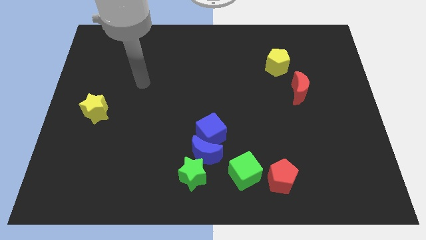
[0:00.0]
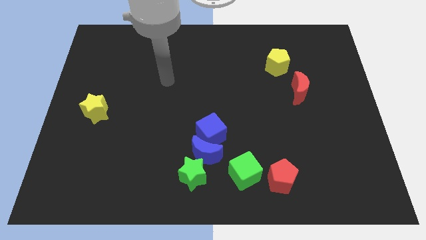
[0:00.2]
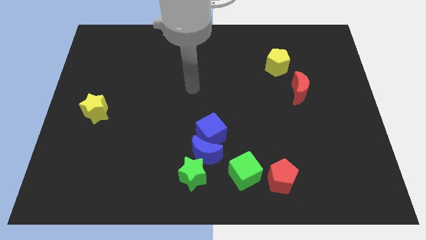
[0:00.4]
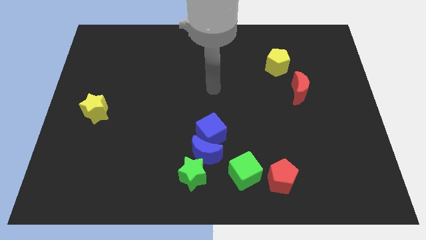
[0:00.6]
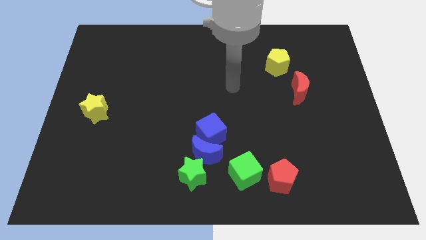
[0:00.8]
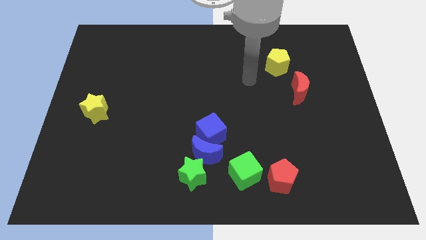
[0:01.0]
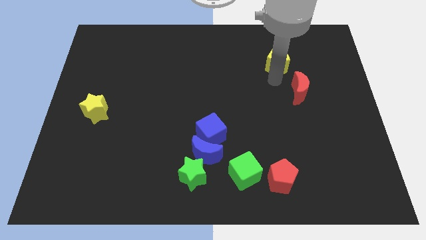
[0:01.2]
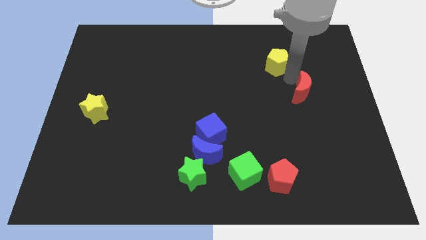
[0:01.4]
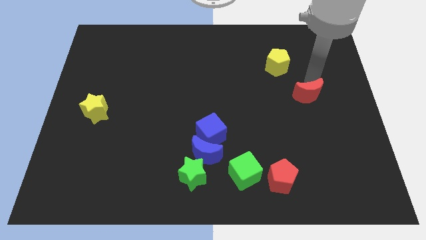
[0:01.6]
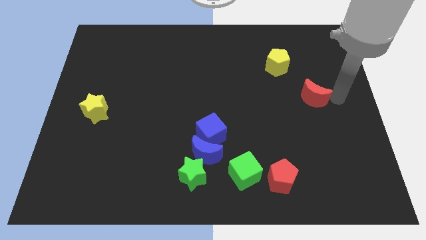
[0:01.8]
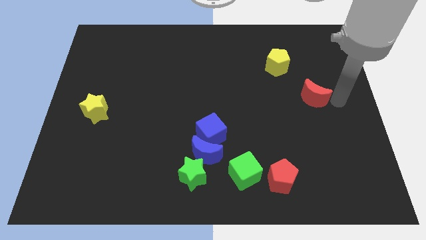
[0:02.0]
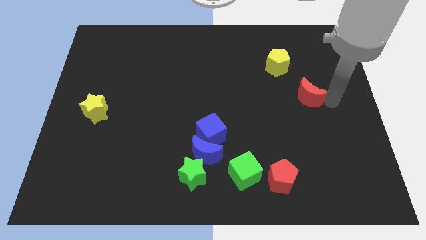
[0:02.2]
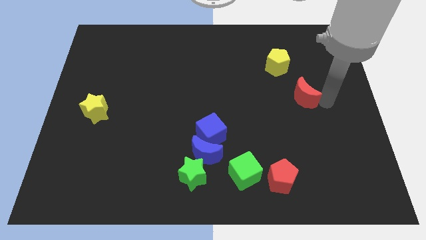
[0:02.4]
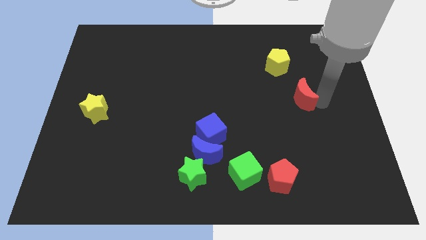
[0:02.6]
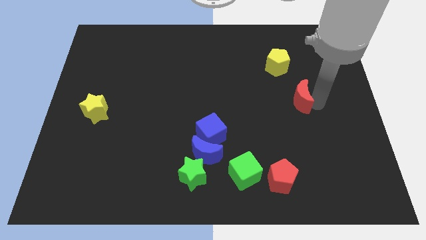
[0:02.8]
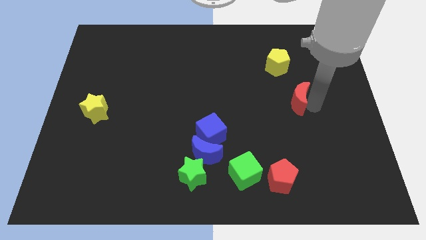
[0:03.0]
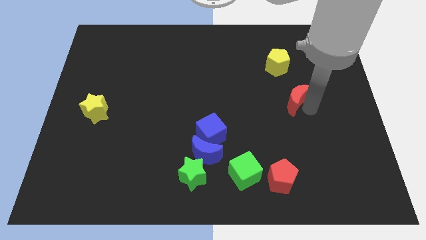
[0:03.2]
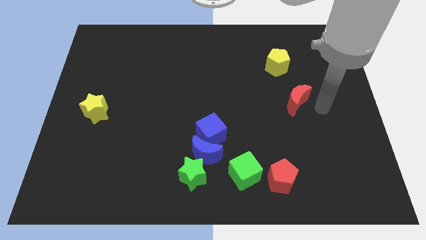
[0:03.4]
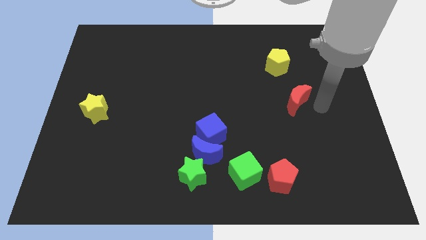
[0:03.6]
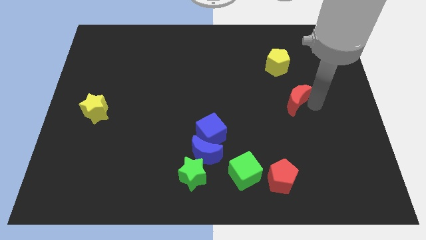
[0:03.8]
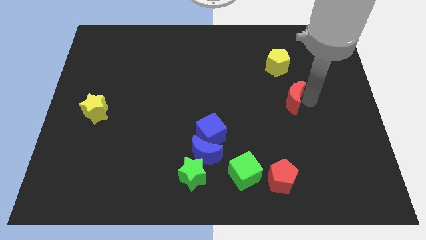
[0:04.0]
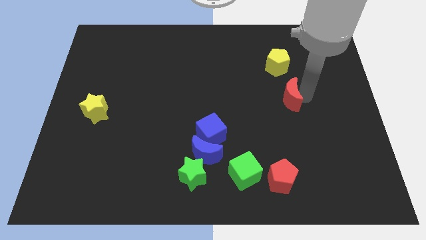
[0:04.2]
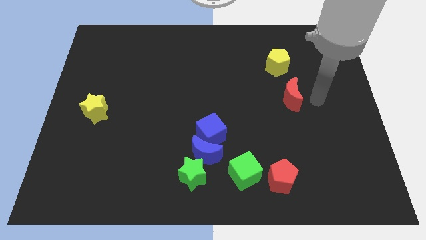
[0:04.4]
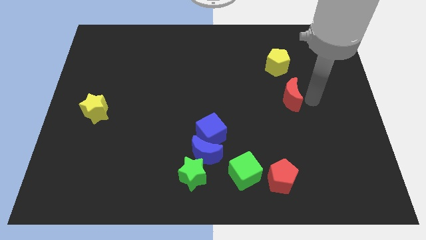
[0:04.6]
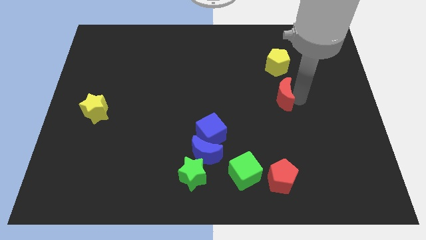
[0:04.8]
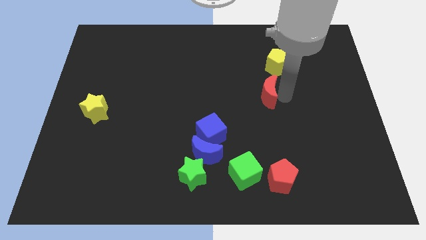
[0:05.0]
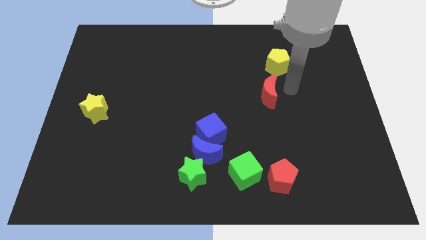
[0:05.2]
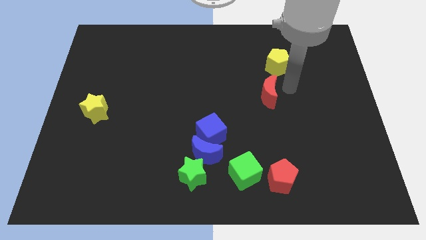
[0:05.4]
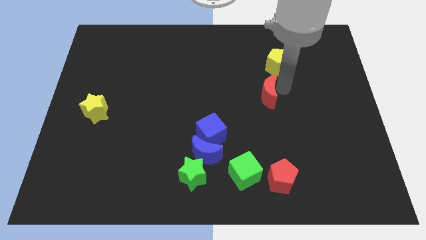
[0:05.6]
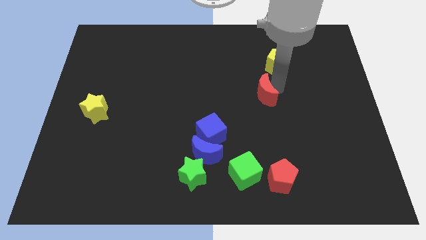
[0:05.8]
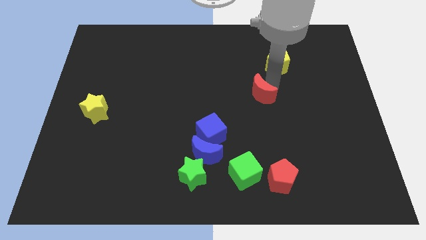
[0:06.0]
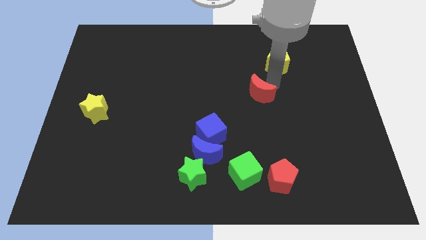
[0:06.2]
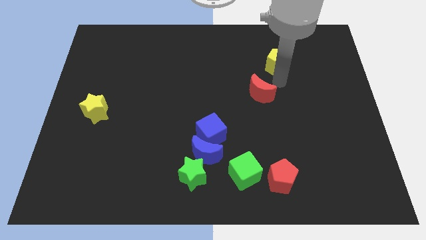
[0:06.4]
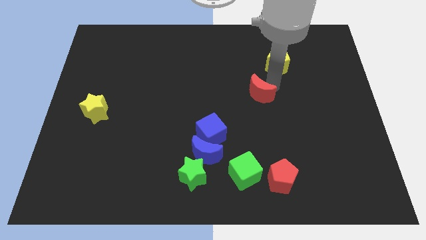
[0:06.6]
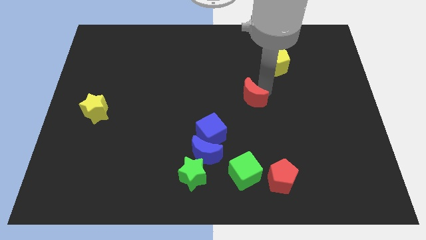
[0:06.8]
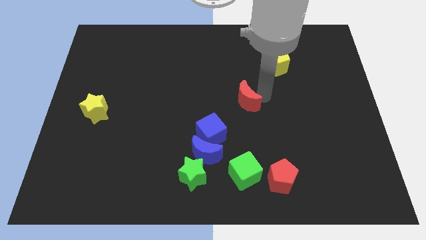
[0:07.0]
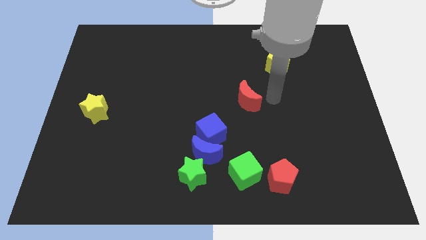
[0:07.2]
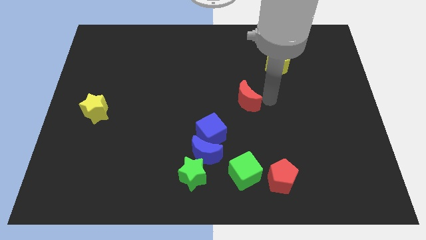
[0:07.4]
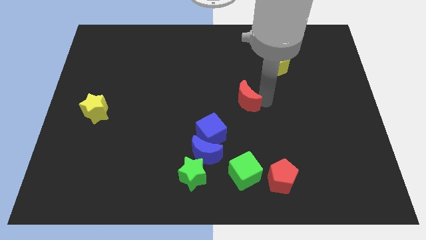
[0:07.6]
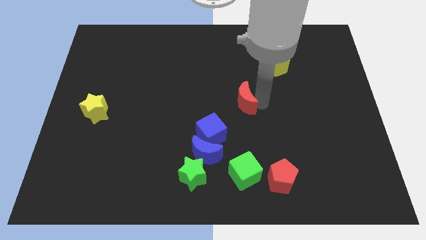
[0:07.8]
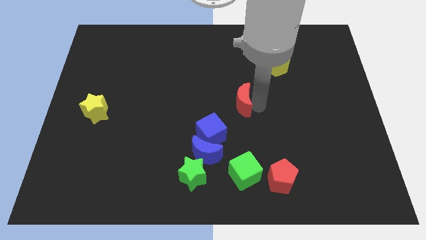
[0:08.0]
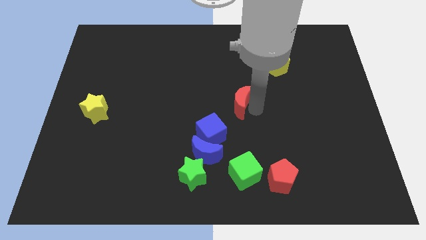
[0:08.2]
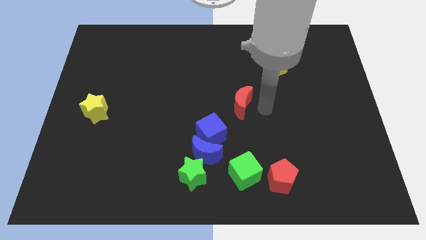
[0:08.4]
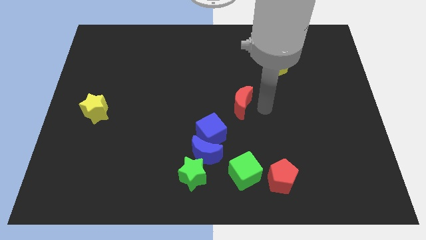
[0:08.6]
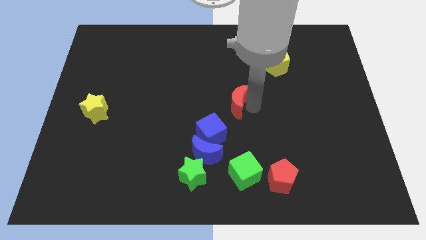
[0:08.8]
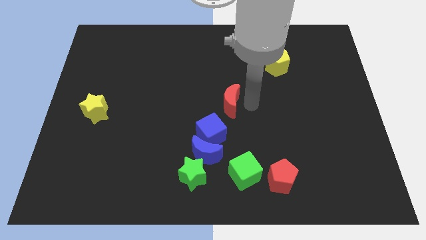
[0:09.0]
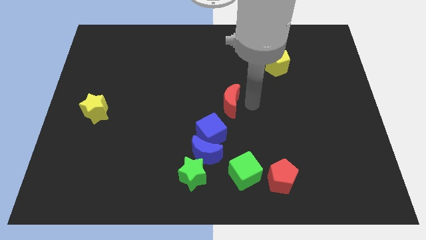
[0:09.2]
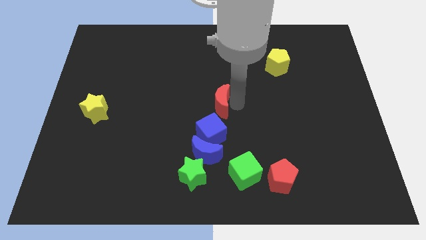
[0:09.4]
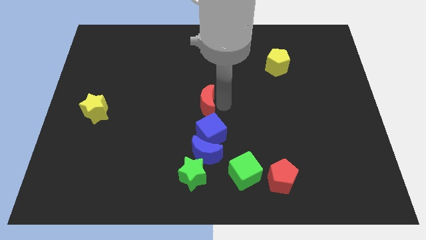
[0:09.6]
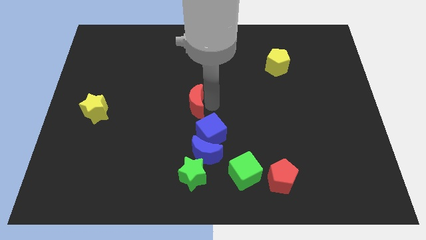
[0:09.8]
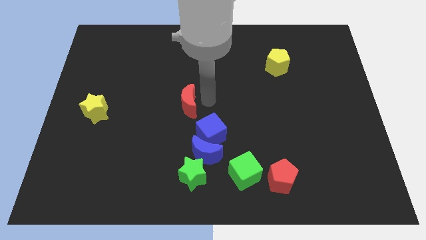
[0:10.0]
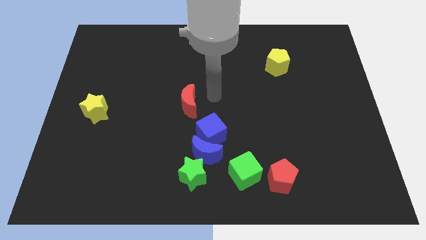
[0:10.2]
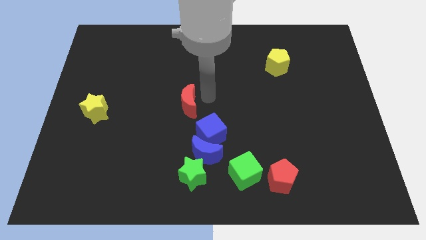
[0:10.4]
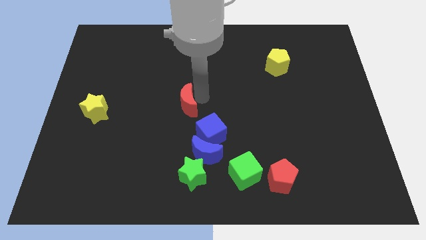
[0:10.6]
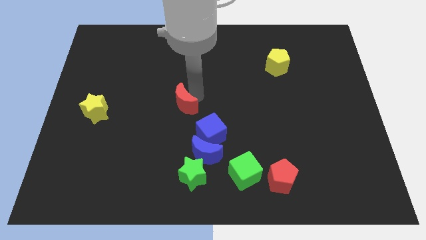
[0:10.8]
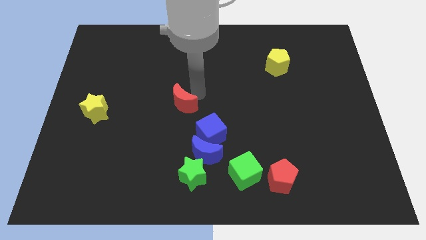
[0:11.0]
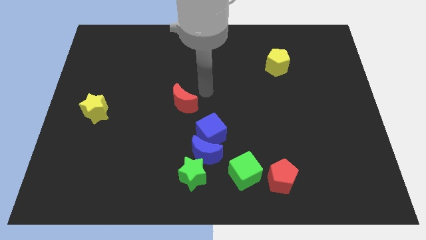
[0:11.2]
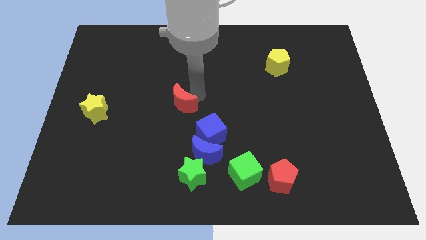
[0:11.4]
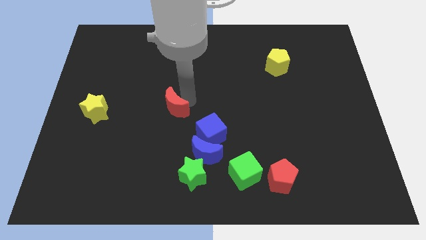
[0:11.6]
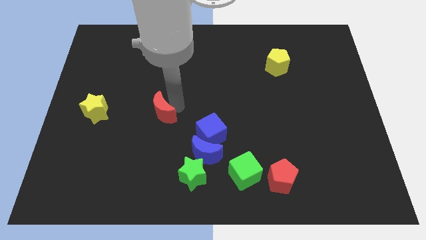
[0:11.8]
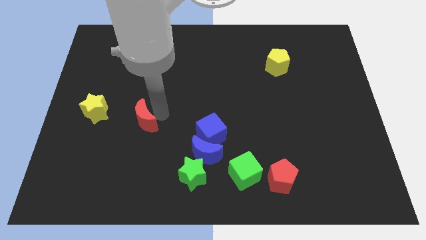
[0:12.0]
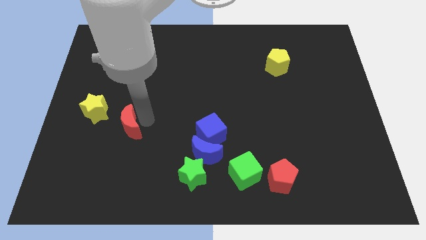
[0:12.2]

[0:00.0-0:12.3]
put the red moon to the bottom right of the yellow star

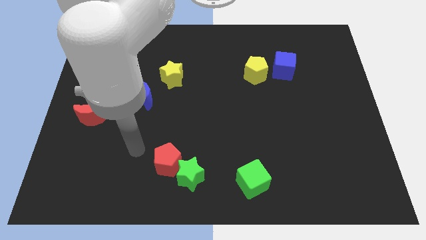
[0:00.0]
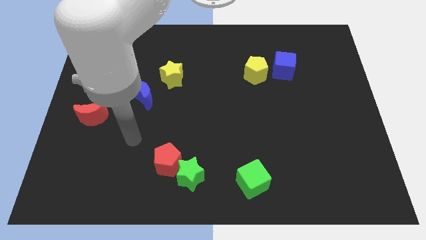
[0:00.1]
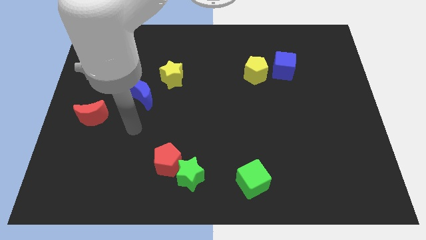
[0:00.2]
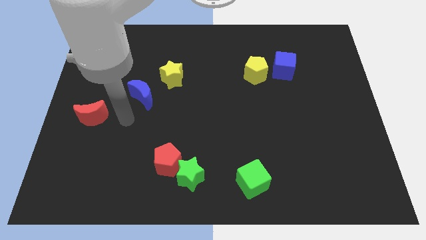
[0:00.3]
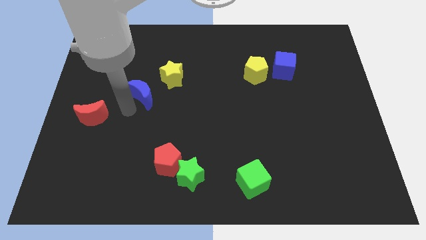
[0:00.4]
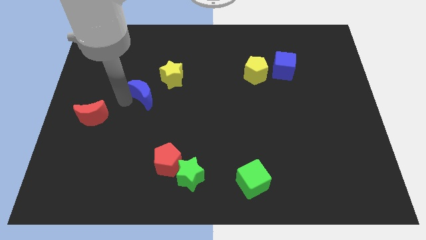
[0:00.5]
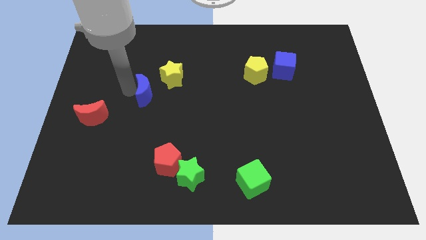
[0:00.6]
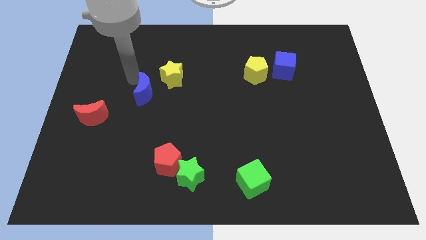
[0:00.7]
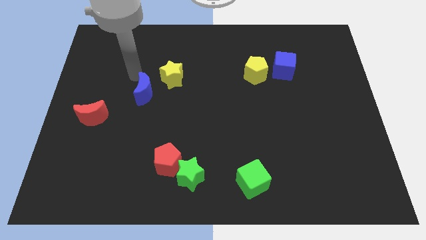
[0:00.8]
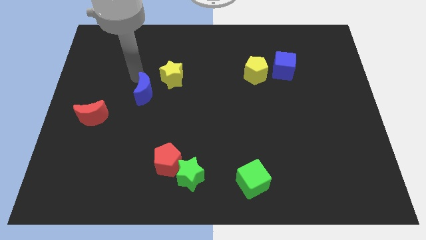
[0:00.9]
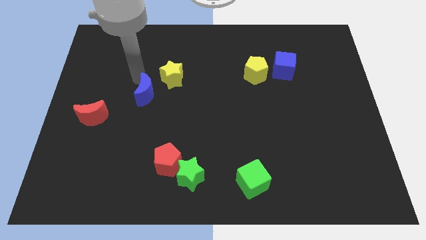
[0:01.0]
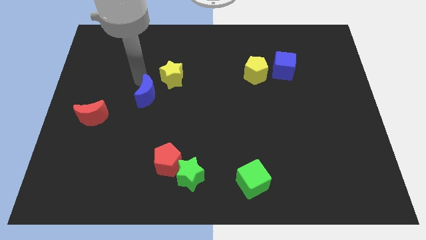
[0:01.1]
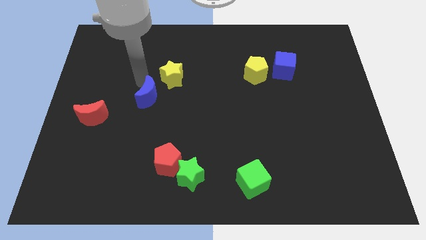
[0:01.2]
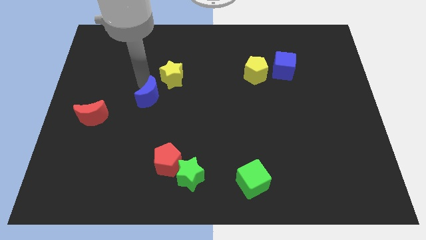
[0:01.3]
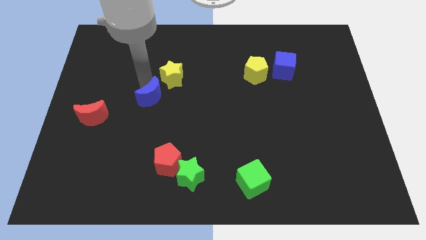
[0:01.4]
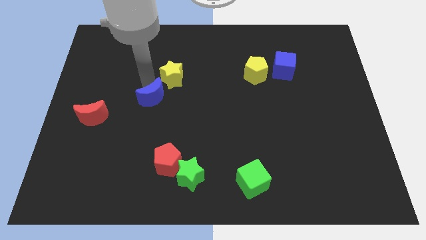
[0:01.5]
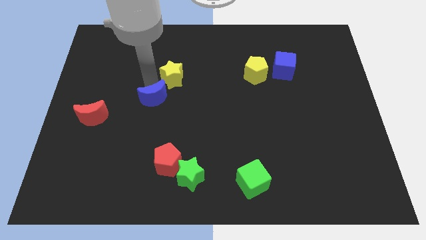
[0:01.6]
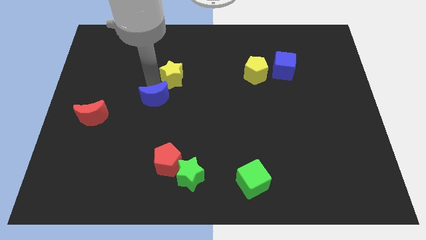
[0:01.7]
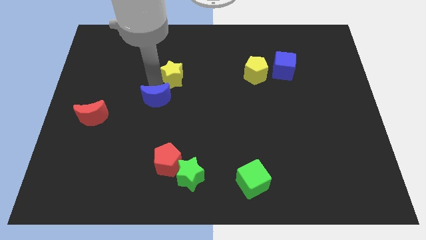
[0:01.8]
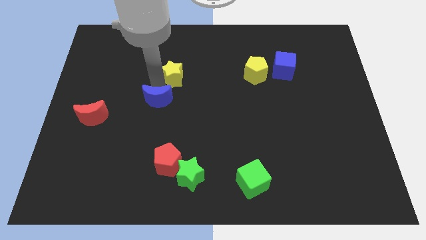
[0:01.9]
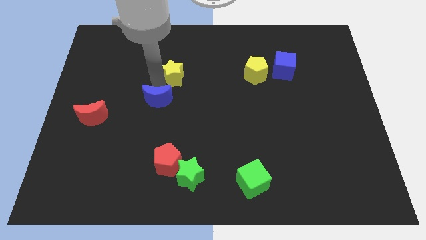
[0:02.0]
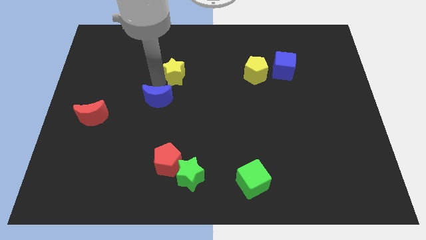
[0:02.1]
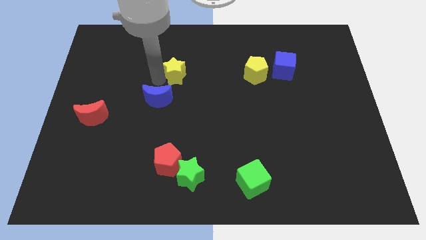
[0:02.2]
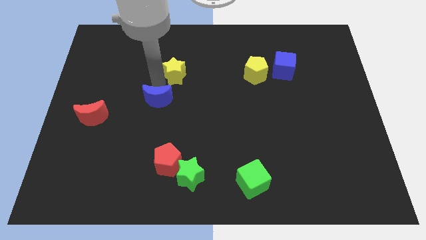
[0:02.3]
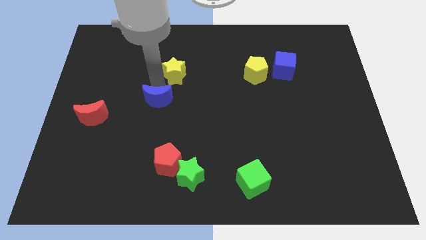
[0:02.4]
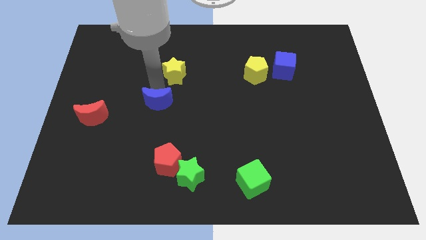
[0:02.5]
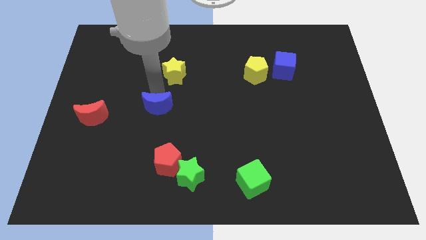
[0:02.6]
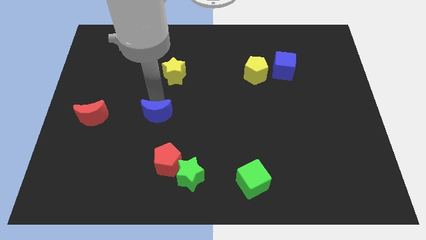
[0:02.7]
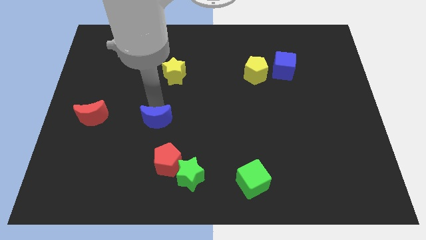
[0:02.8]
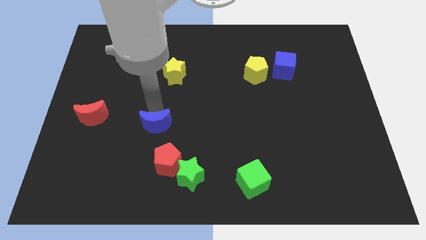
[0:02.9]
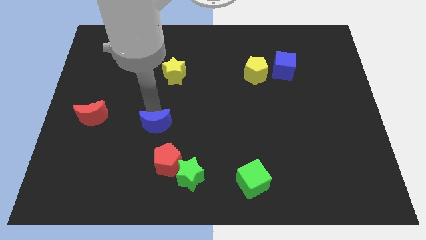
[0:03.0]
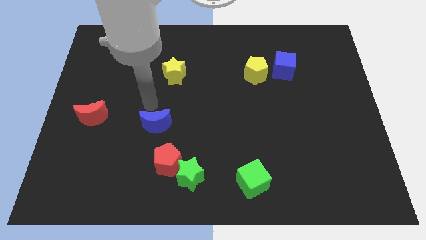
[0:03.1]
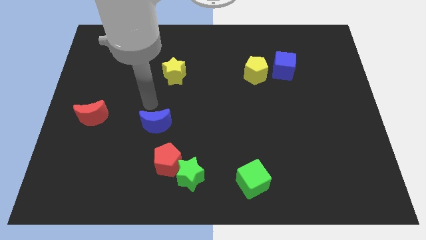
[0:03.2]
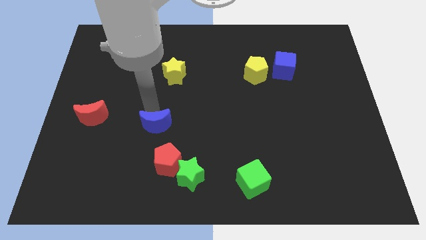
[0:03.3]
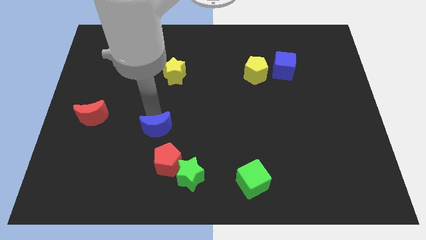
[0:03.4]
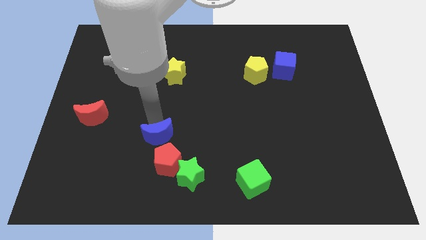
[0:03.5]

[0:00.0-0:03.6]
put the blue moon diagonally up and to the left of the green star
